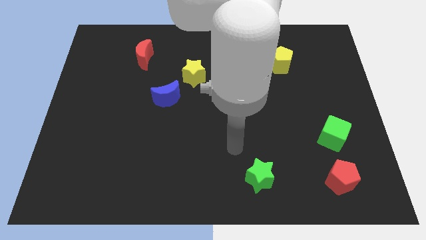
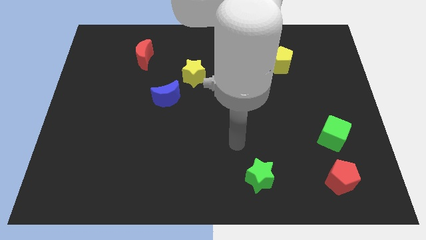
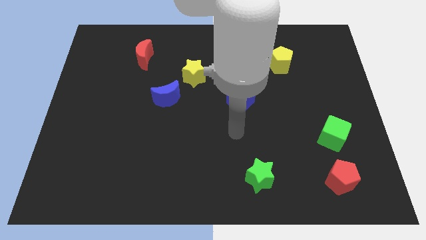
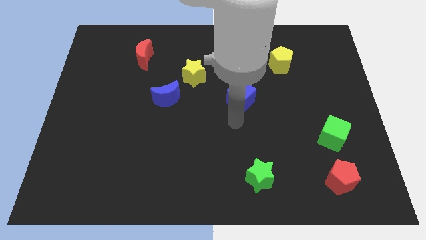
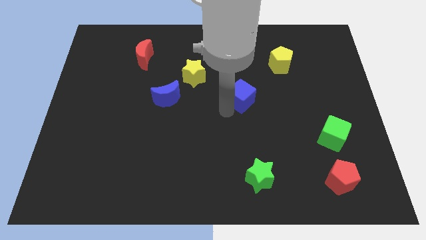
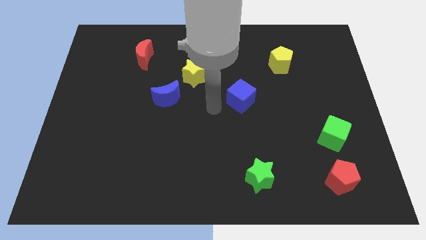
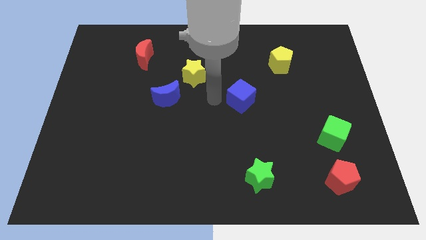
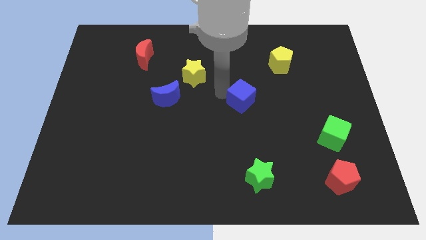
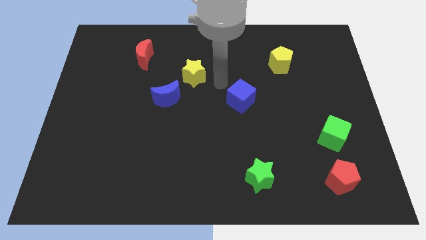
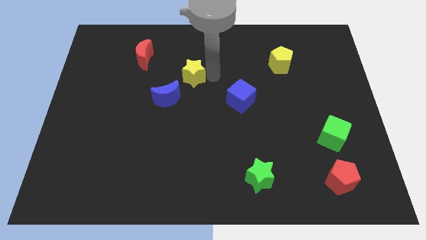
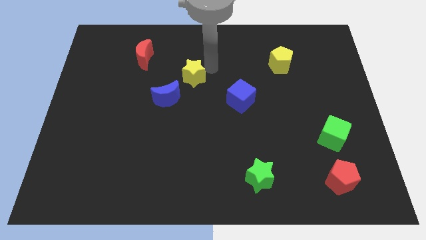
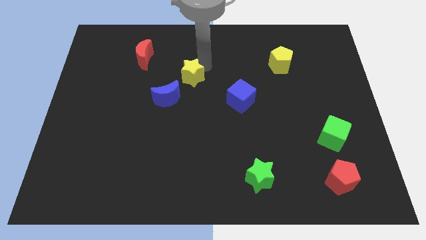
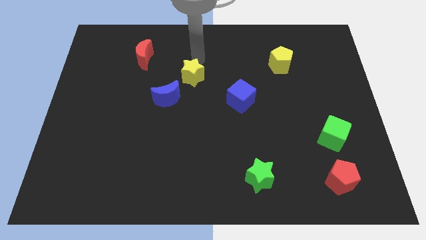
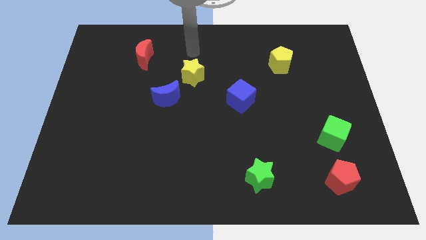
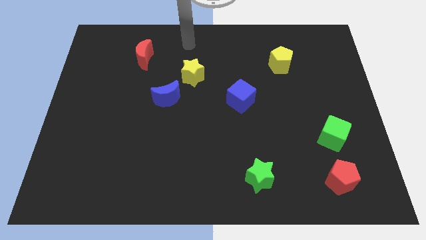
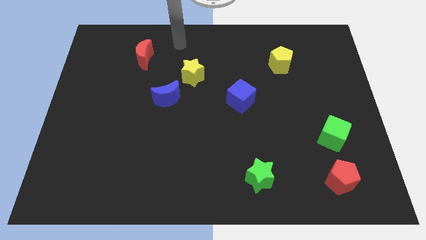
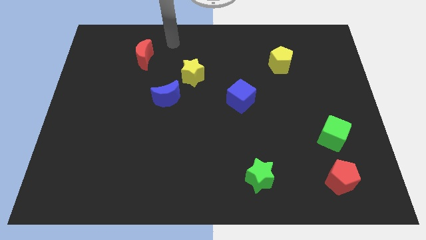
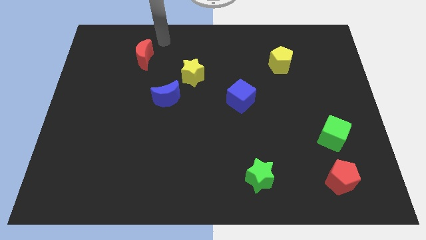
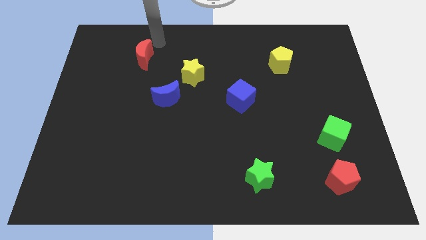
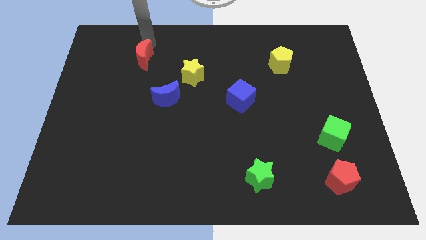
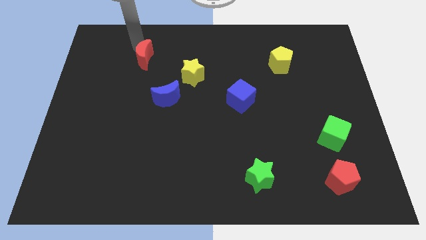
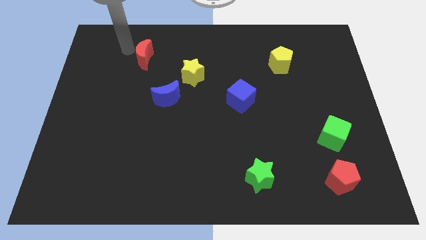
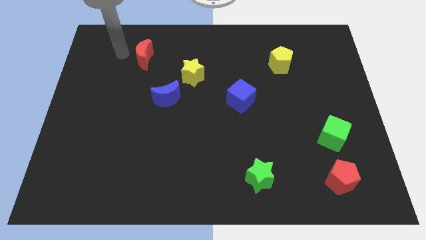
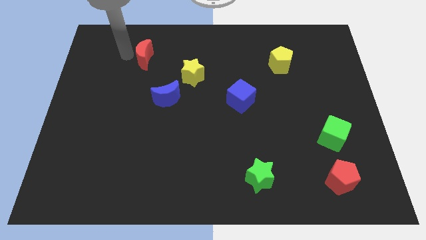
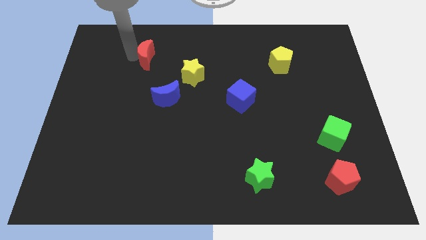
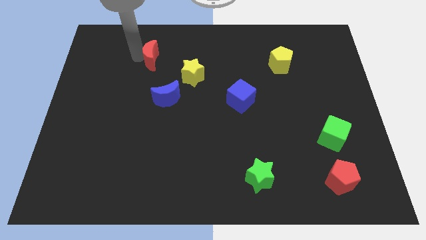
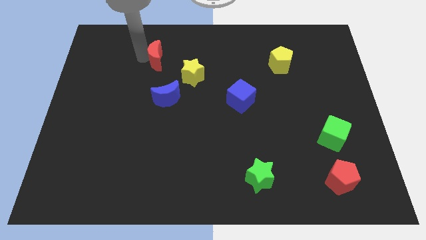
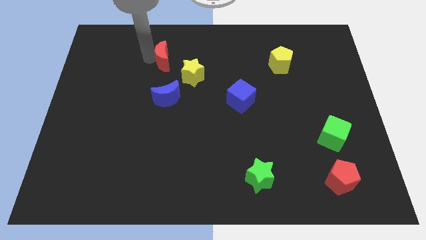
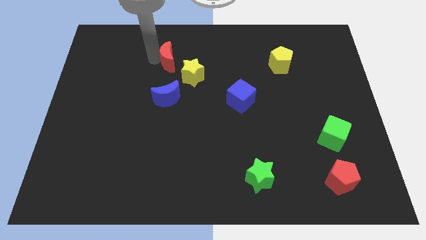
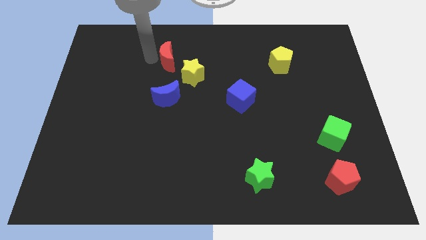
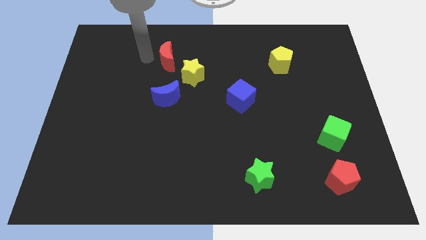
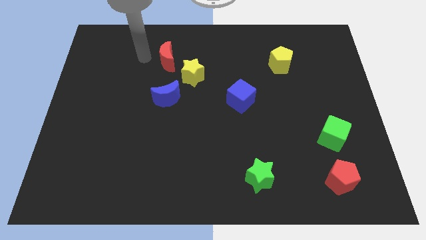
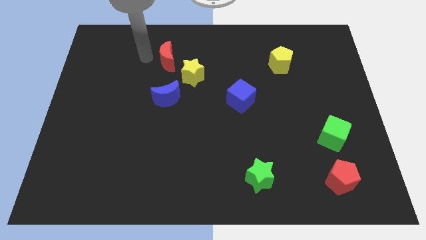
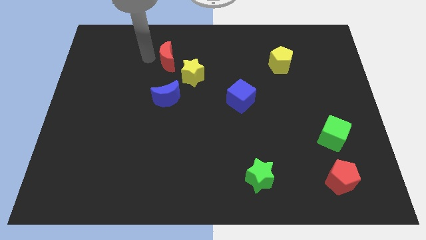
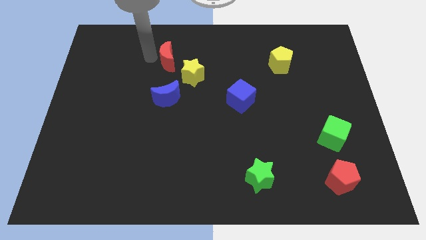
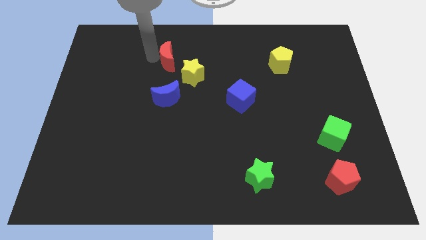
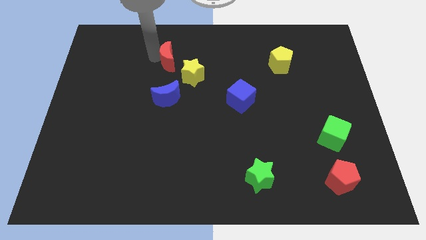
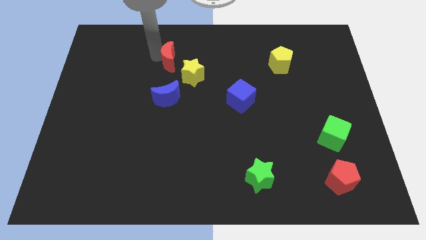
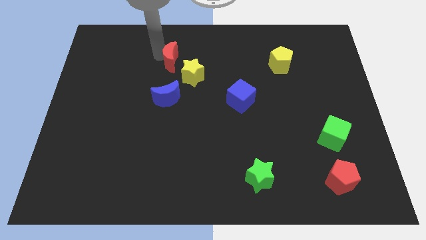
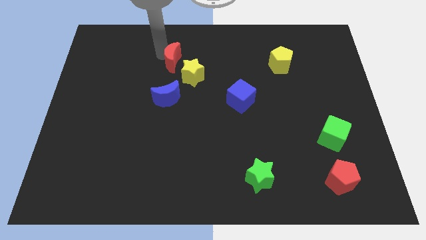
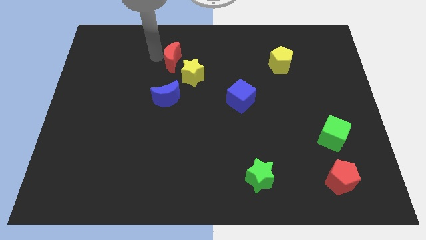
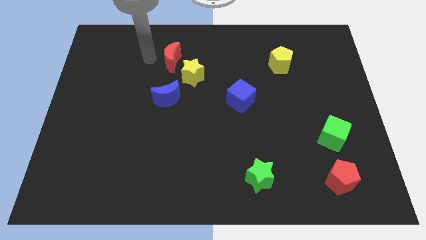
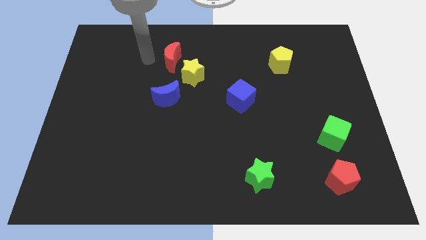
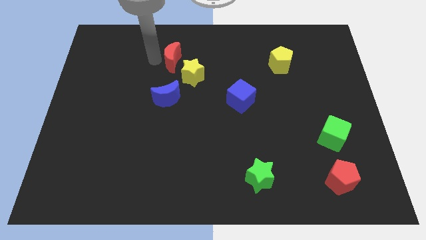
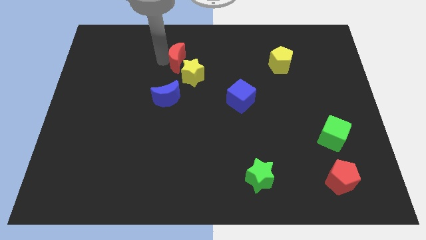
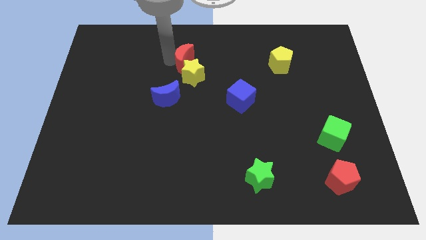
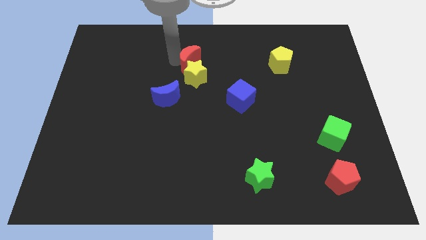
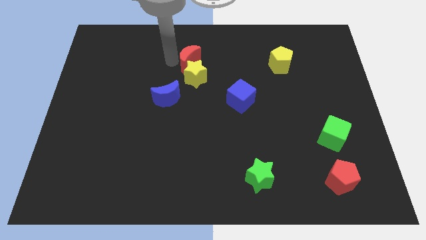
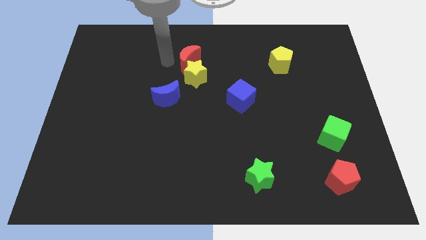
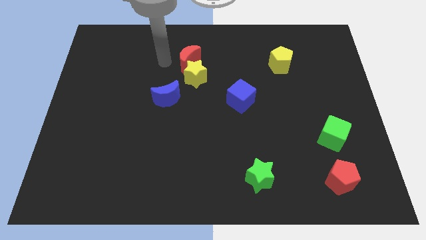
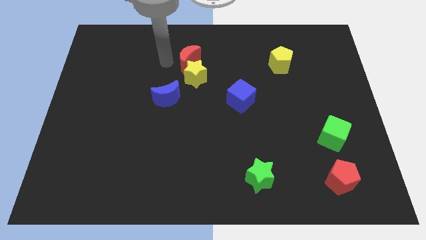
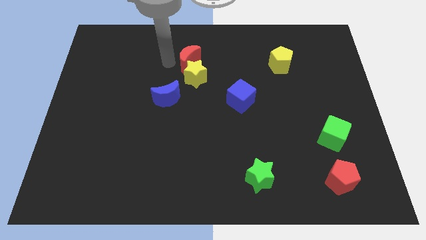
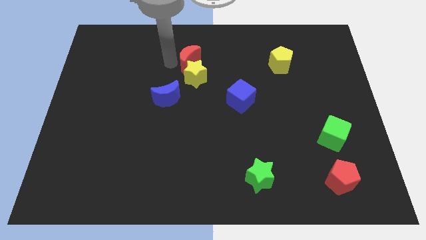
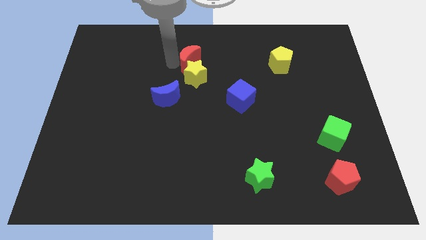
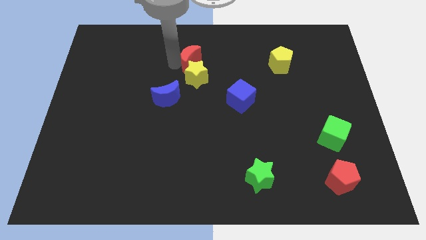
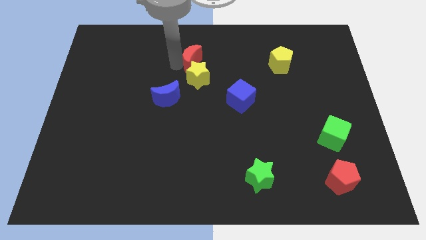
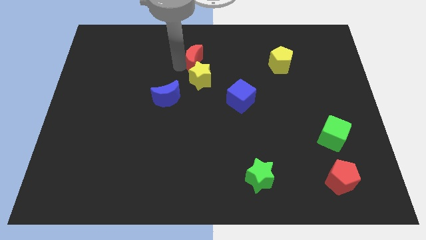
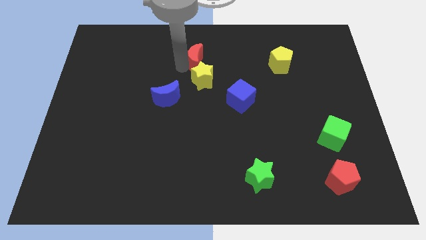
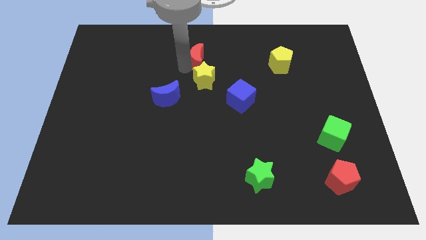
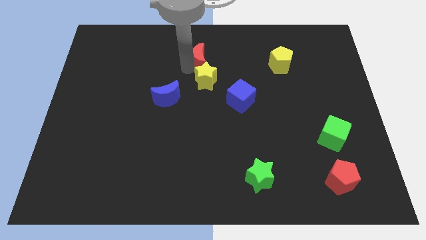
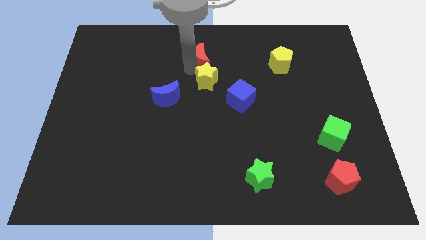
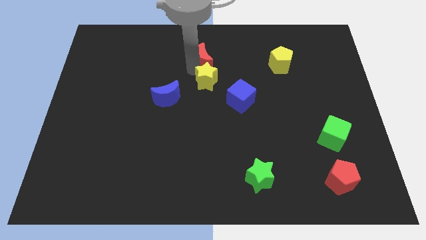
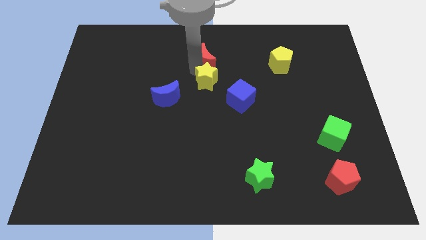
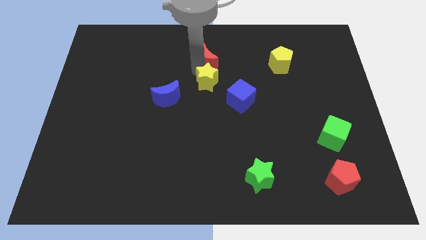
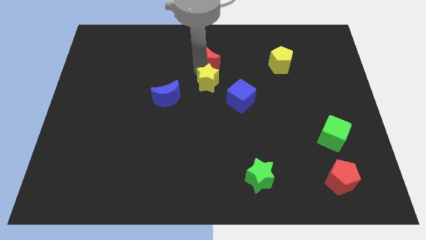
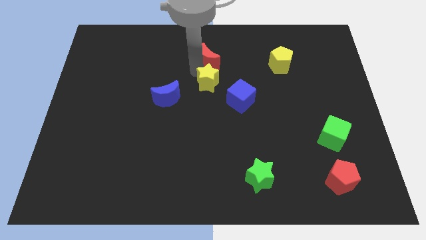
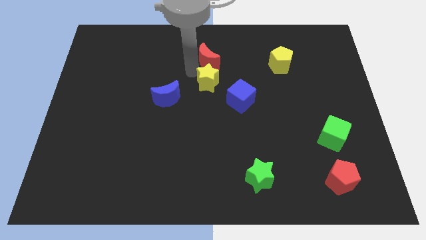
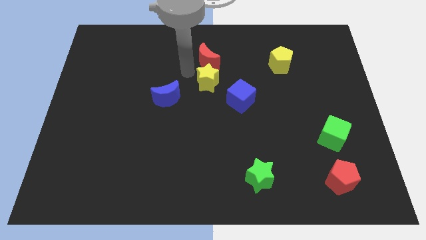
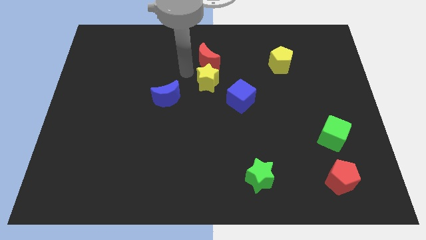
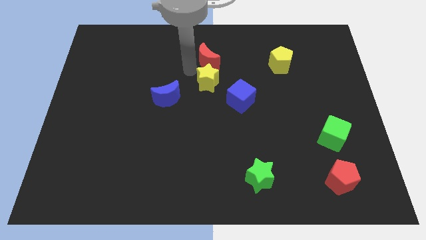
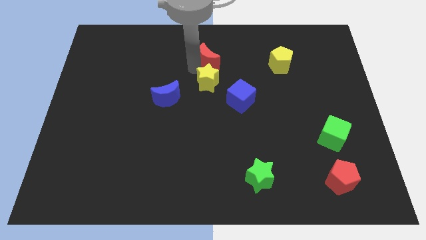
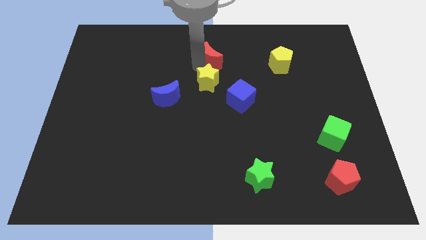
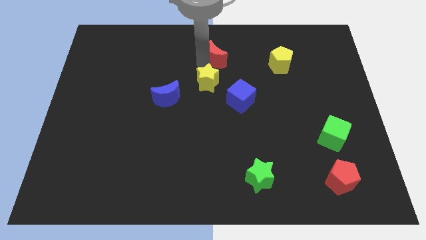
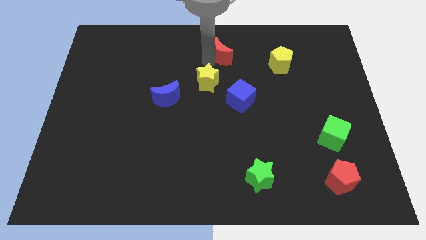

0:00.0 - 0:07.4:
slide the red moon right

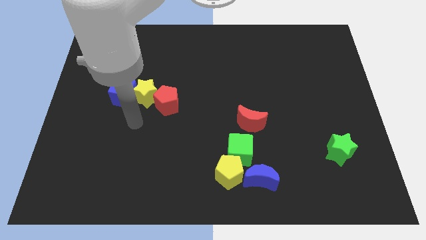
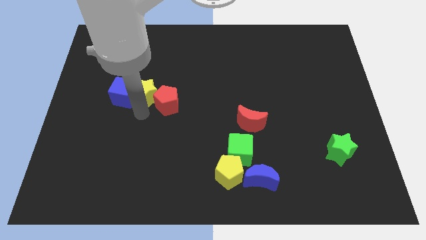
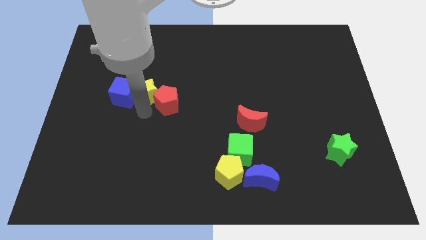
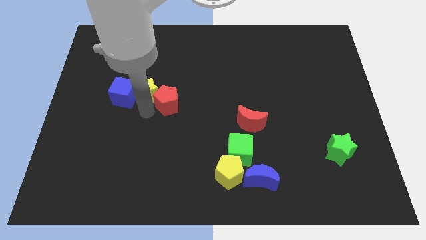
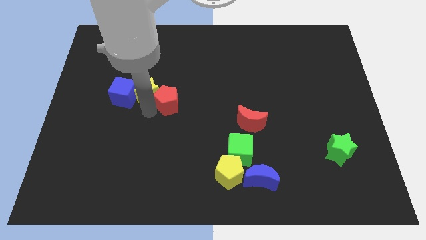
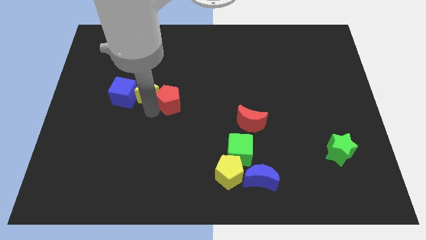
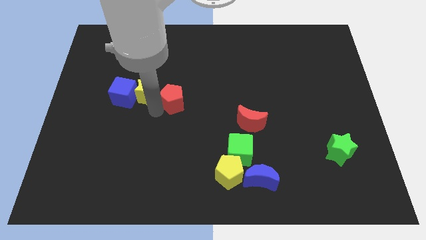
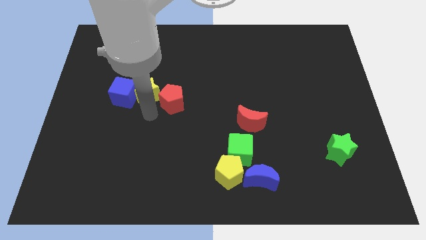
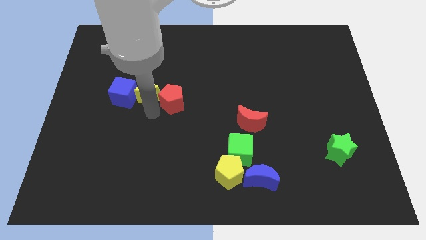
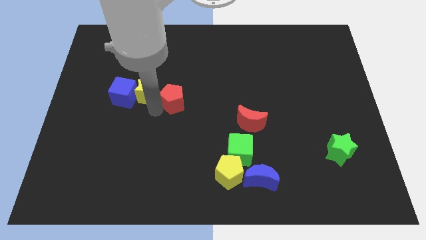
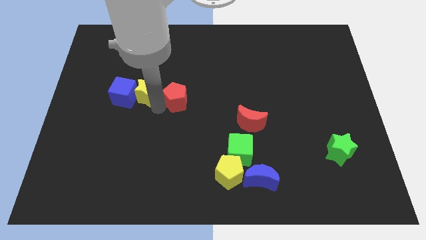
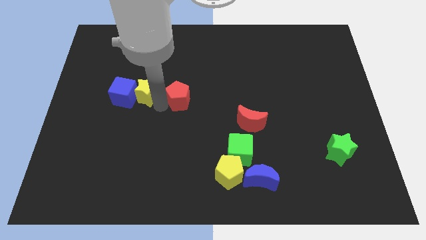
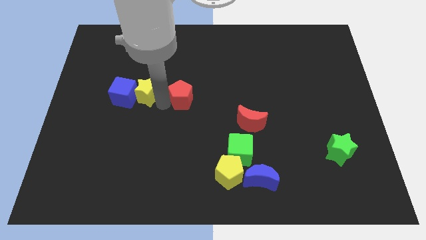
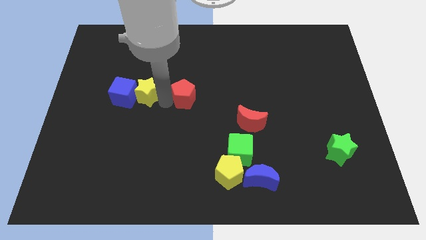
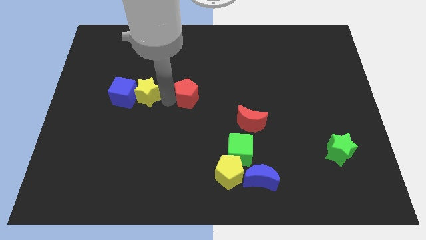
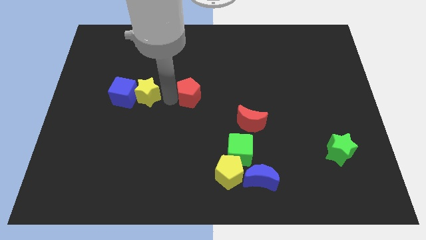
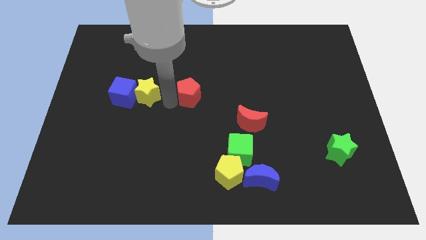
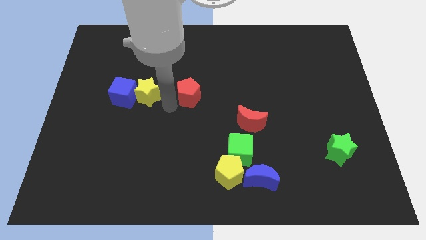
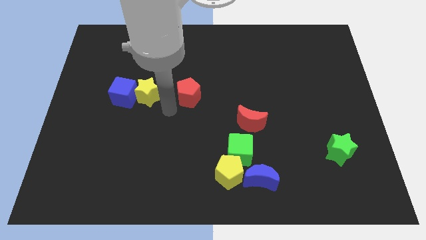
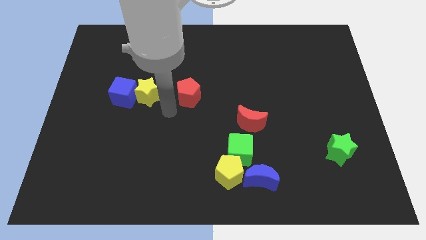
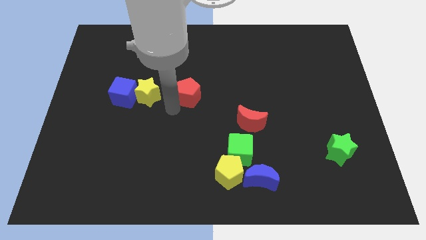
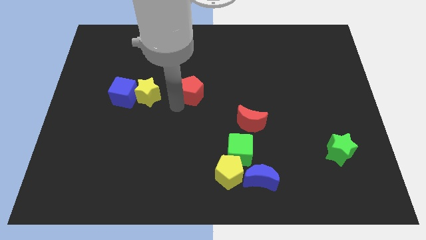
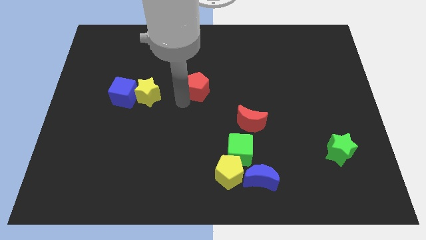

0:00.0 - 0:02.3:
push the red pentagon a little bit upwards and to the right diagonally
